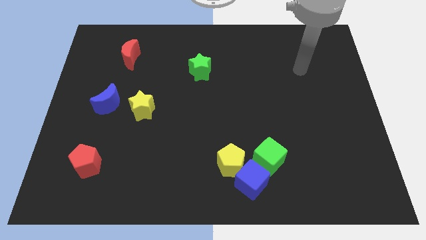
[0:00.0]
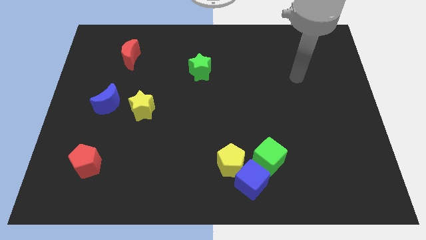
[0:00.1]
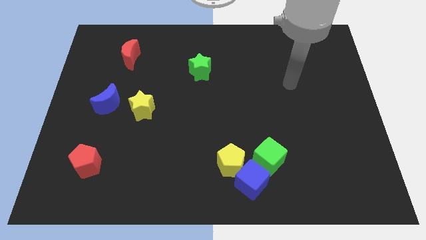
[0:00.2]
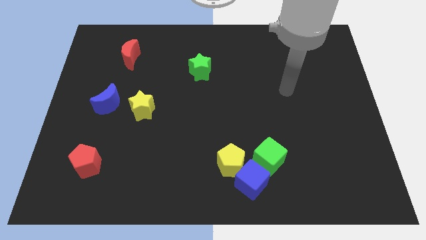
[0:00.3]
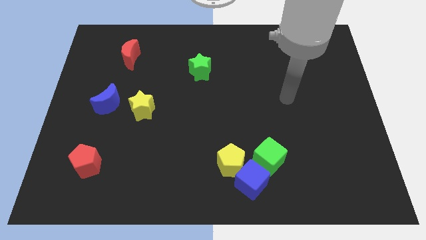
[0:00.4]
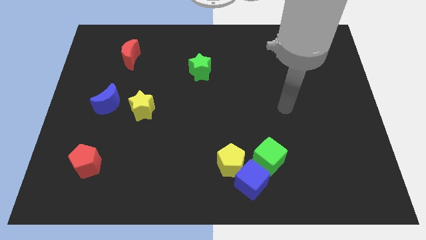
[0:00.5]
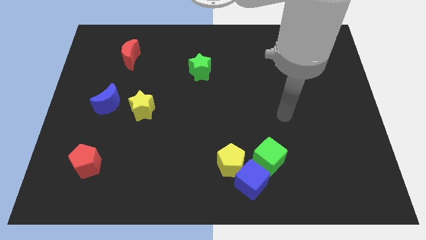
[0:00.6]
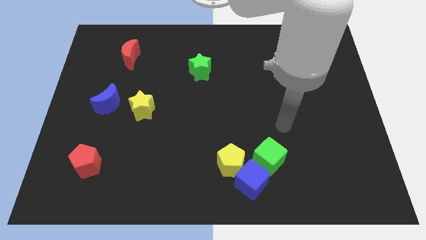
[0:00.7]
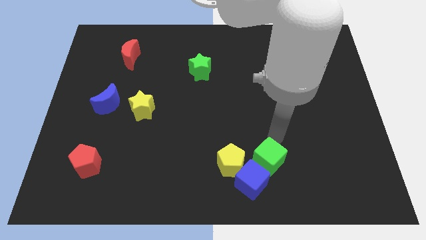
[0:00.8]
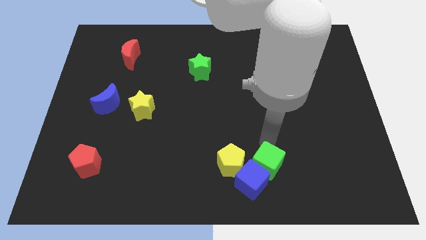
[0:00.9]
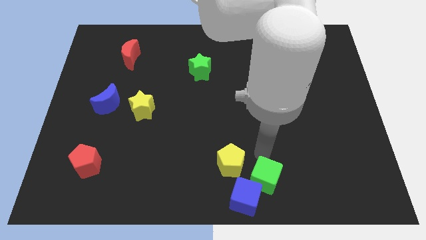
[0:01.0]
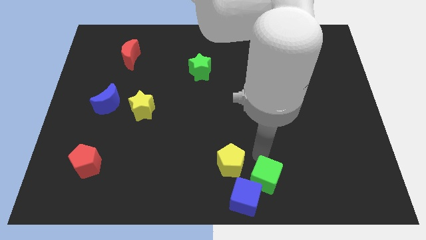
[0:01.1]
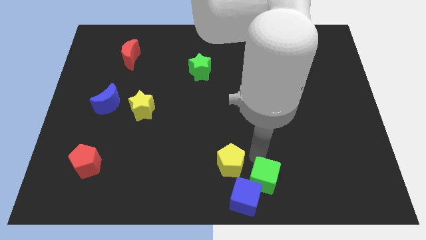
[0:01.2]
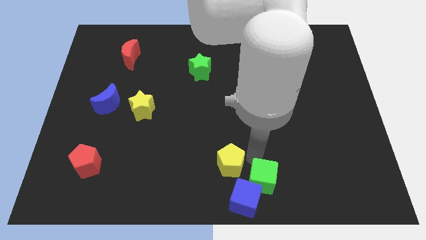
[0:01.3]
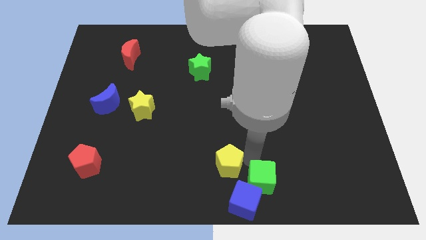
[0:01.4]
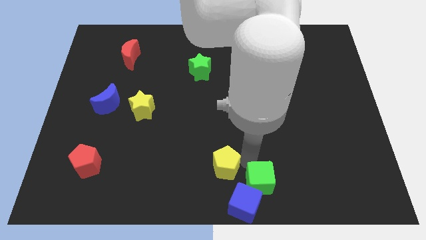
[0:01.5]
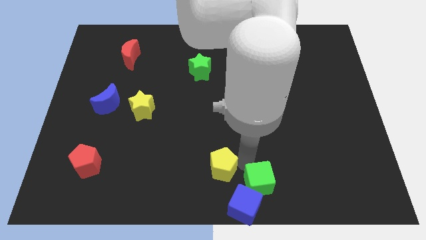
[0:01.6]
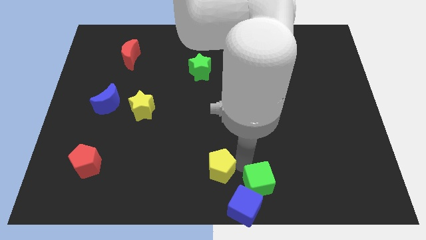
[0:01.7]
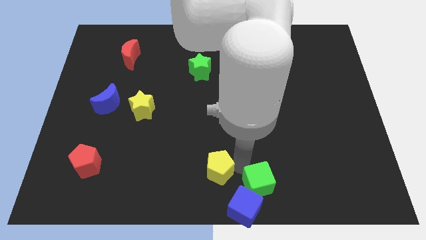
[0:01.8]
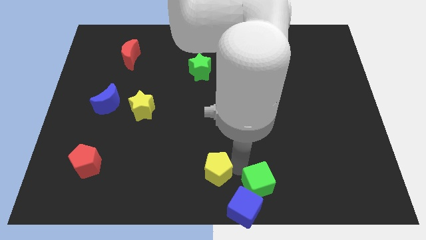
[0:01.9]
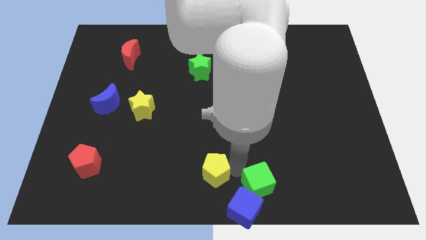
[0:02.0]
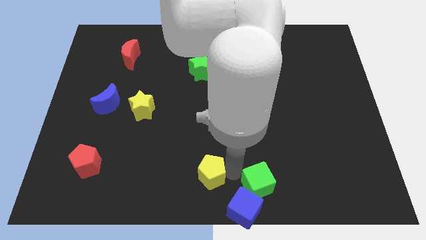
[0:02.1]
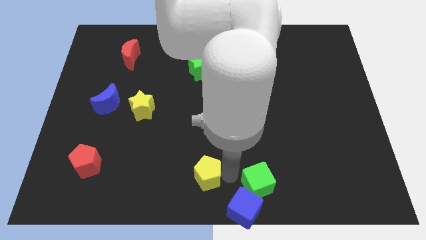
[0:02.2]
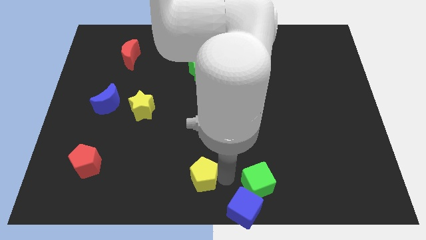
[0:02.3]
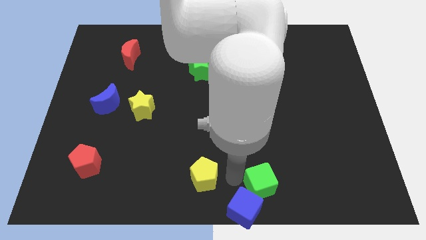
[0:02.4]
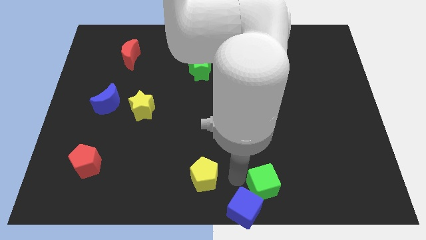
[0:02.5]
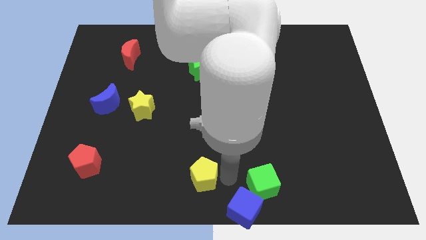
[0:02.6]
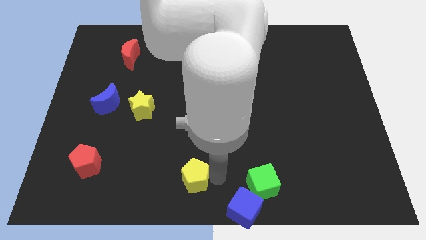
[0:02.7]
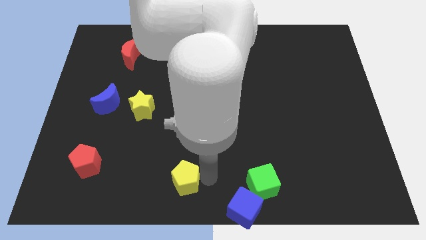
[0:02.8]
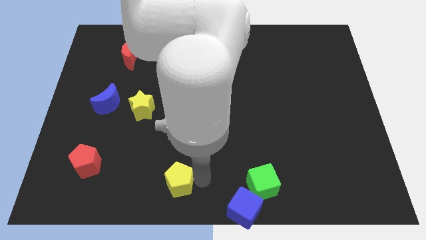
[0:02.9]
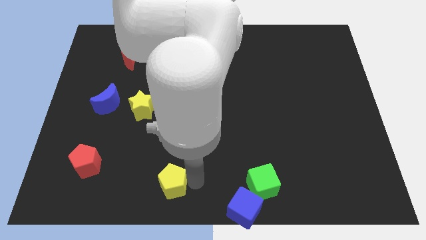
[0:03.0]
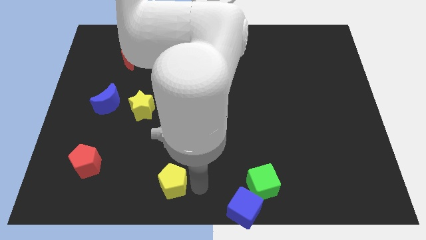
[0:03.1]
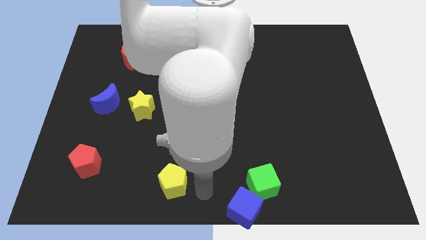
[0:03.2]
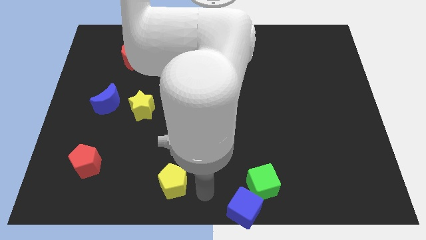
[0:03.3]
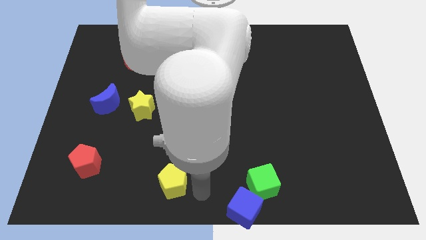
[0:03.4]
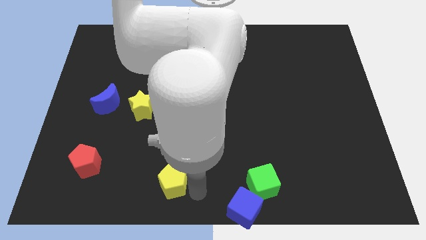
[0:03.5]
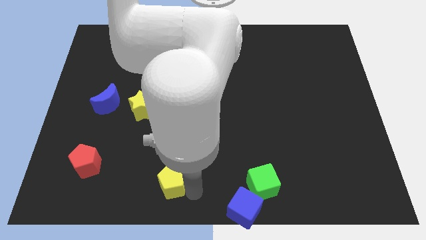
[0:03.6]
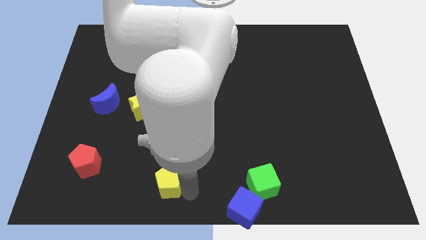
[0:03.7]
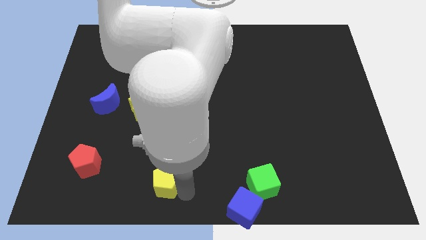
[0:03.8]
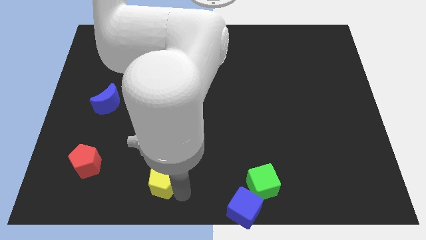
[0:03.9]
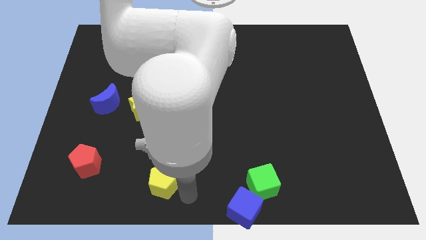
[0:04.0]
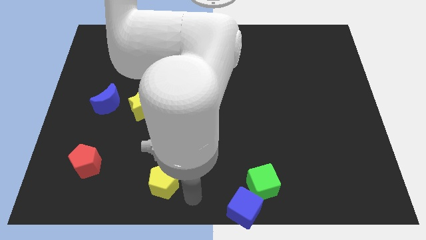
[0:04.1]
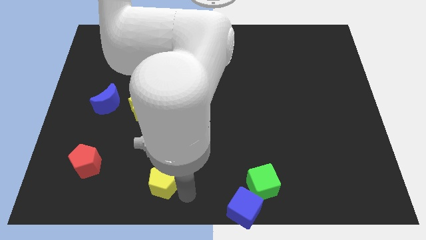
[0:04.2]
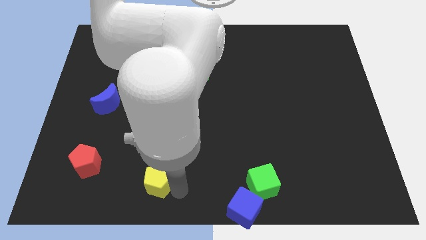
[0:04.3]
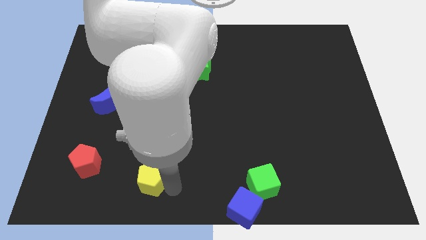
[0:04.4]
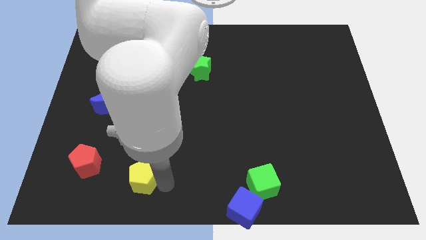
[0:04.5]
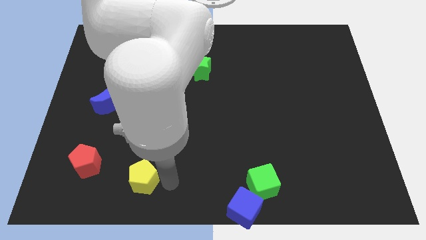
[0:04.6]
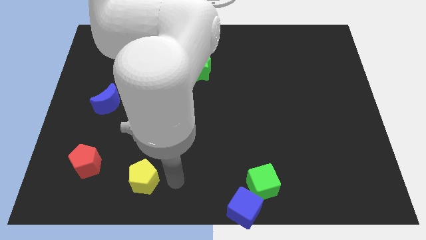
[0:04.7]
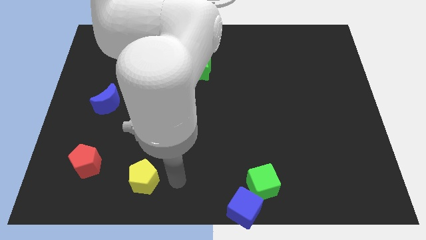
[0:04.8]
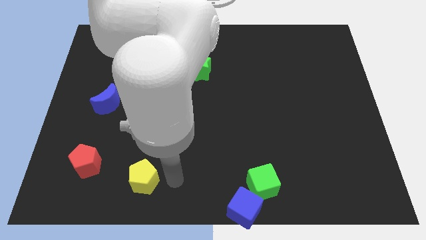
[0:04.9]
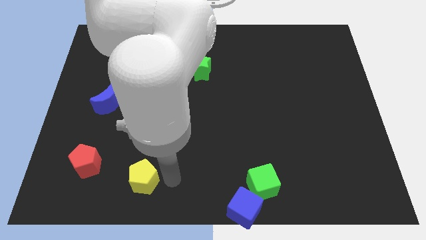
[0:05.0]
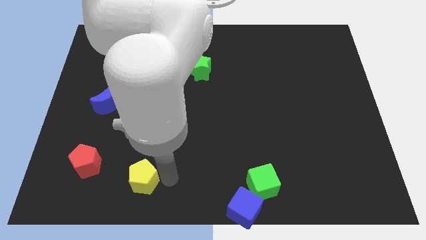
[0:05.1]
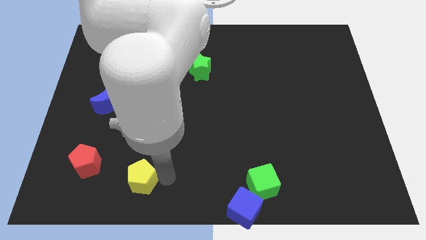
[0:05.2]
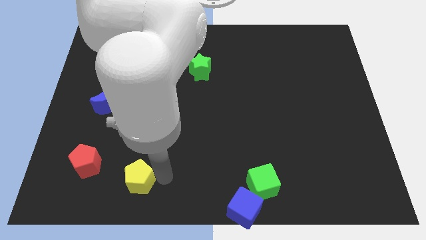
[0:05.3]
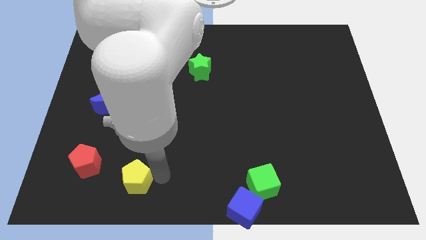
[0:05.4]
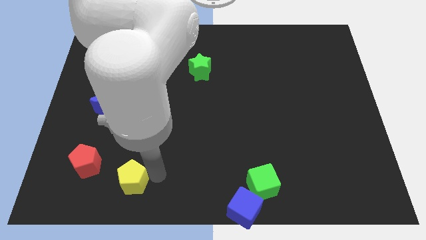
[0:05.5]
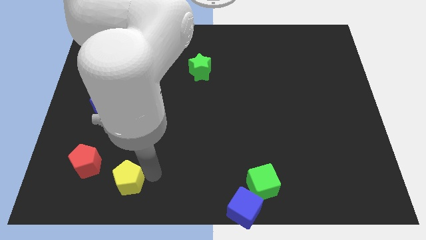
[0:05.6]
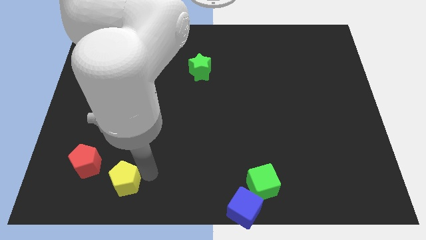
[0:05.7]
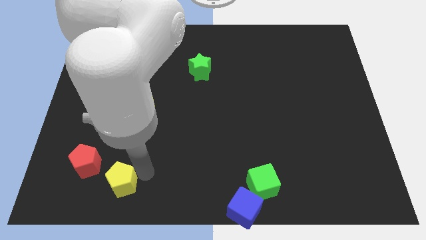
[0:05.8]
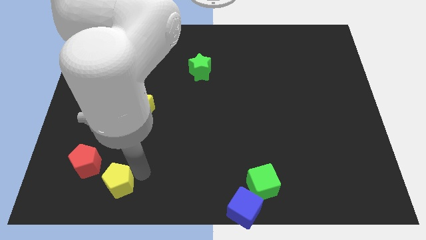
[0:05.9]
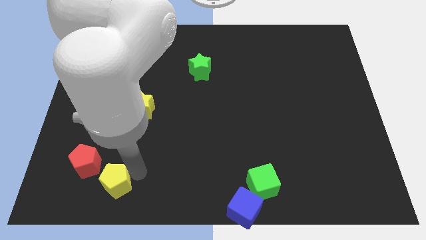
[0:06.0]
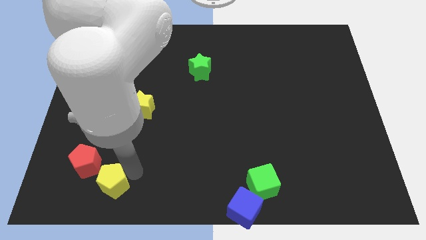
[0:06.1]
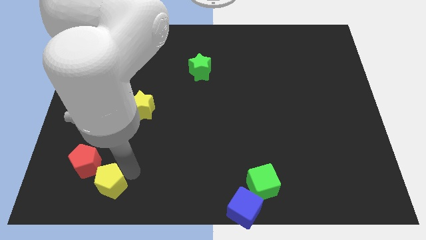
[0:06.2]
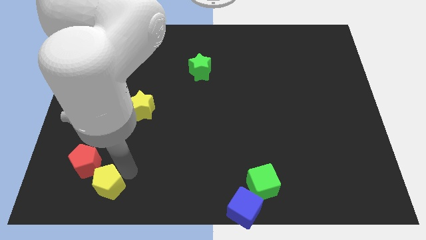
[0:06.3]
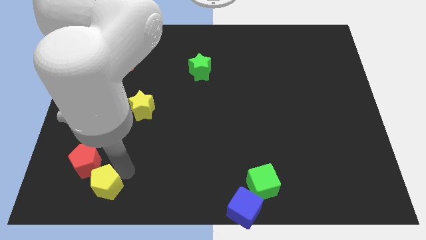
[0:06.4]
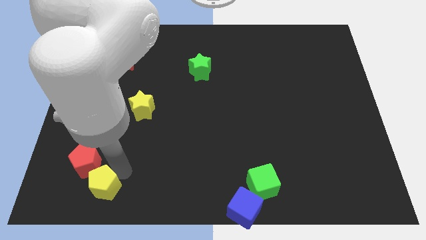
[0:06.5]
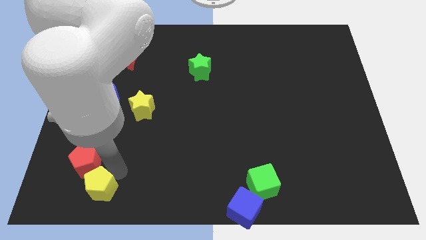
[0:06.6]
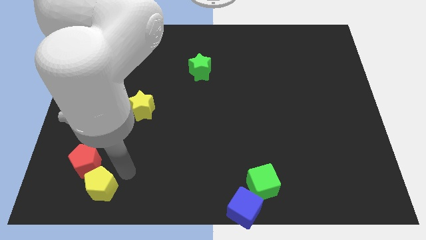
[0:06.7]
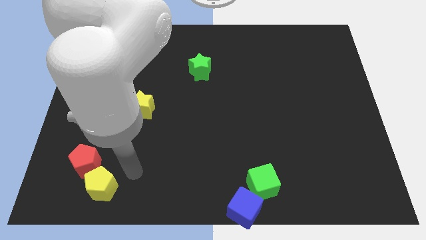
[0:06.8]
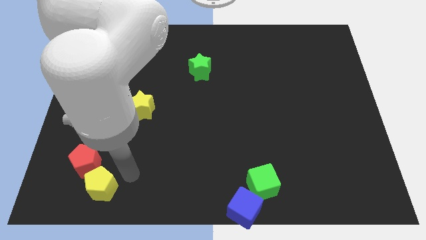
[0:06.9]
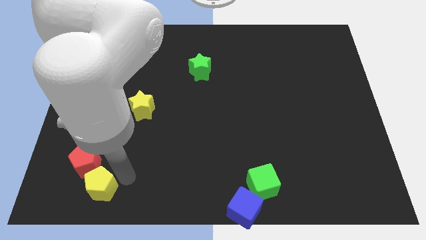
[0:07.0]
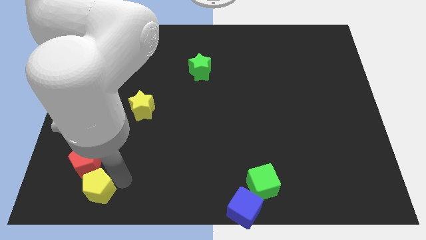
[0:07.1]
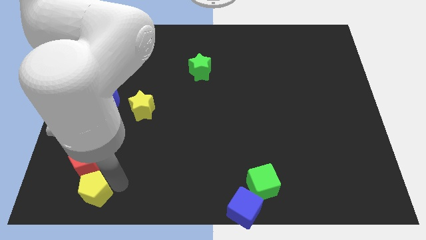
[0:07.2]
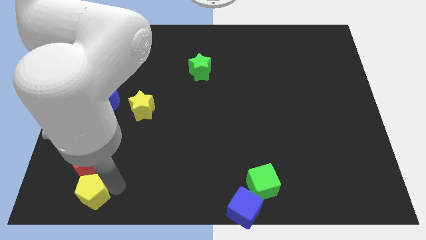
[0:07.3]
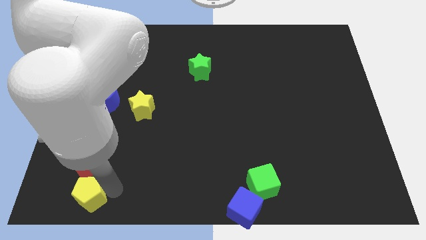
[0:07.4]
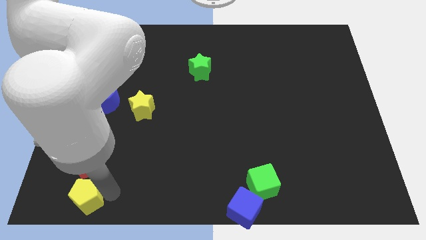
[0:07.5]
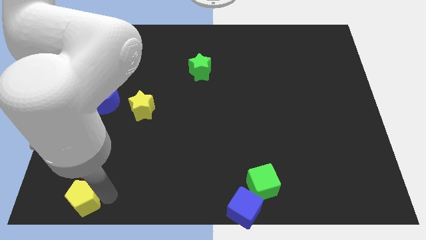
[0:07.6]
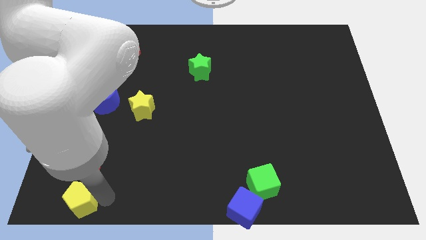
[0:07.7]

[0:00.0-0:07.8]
move the yellow pentagon to the bottom left
